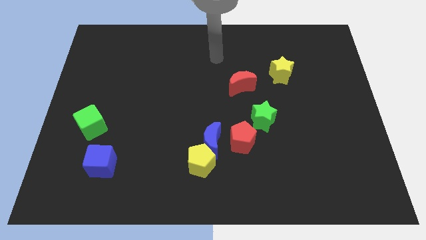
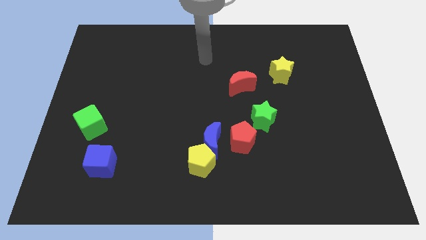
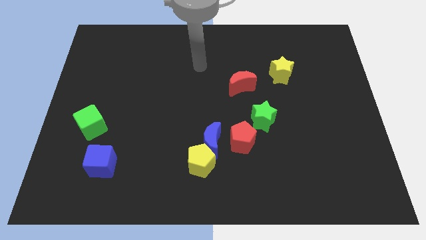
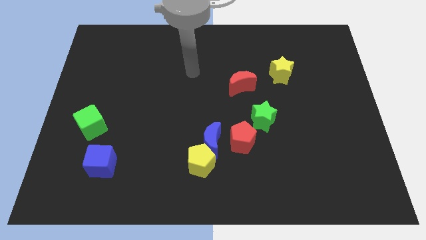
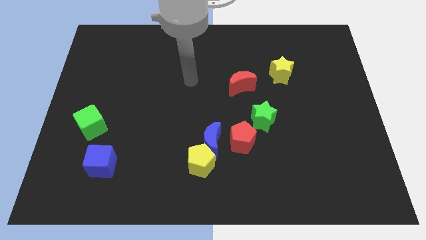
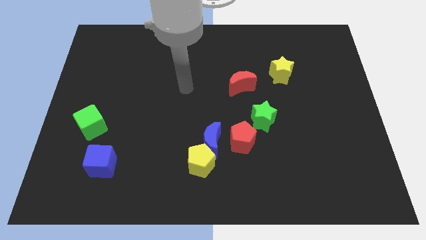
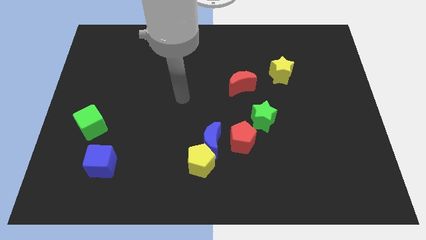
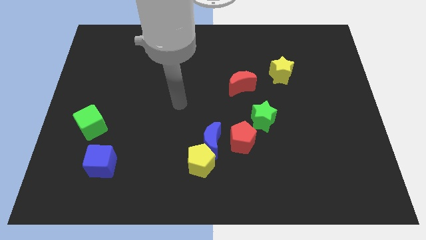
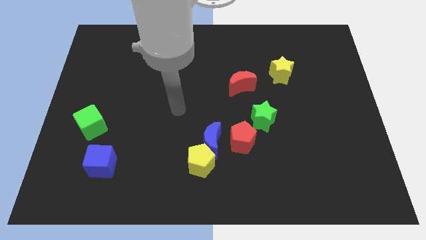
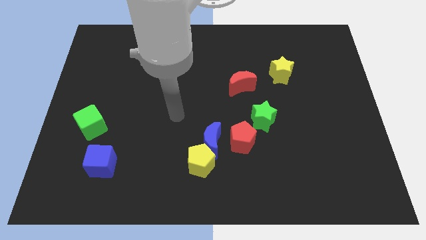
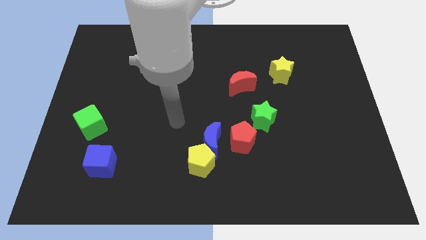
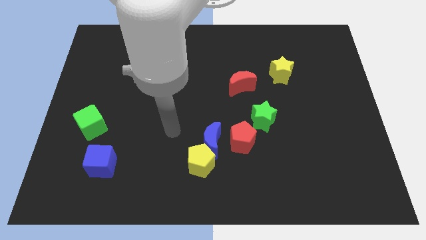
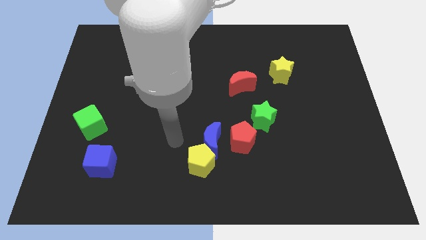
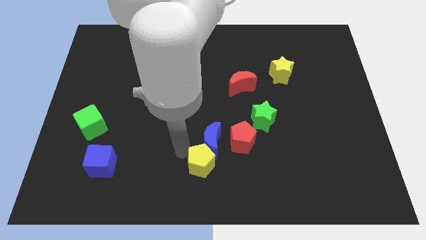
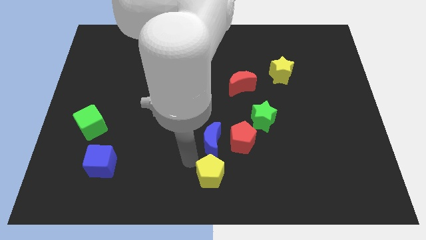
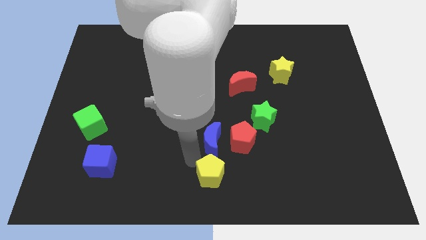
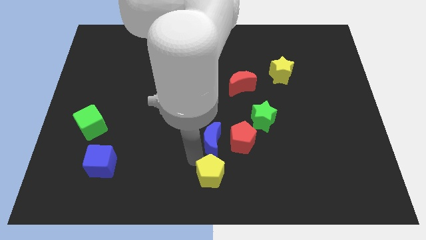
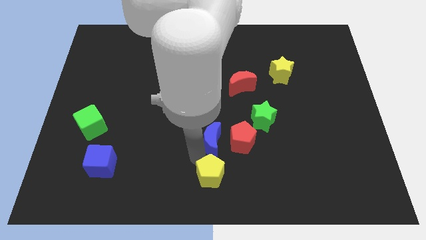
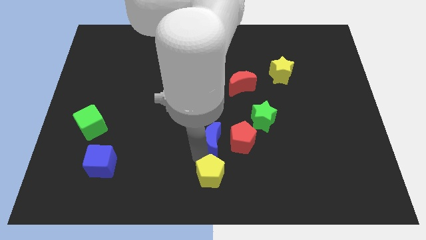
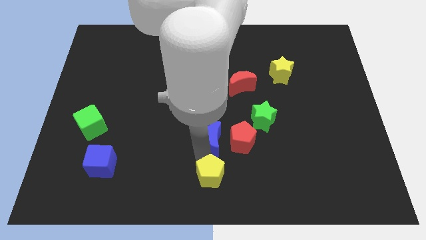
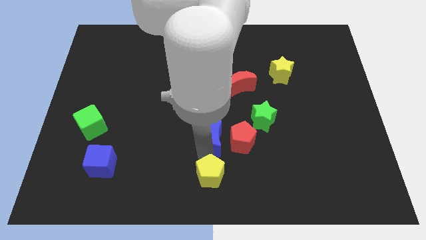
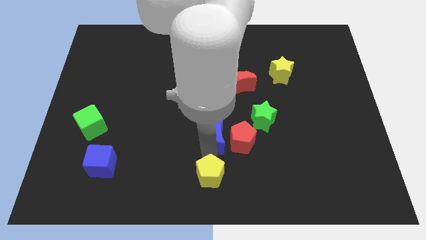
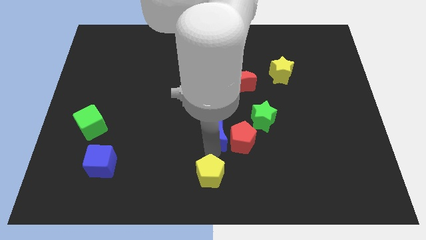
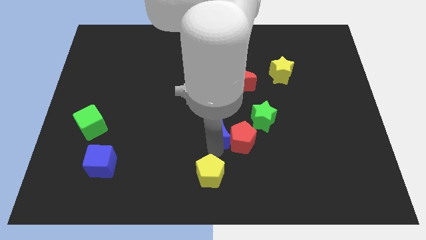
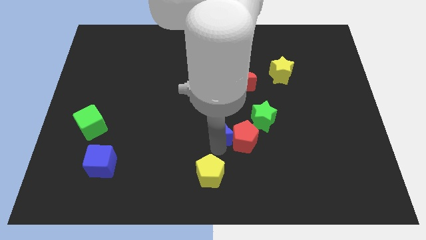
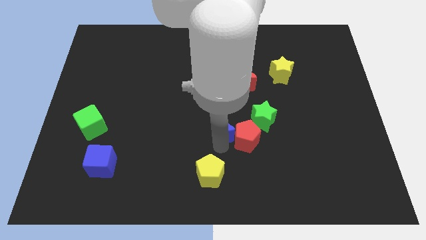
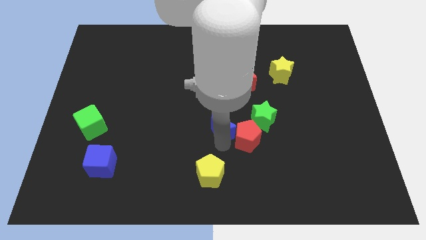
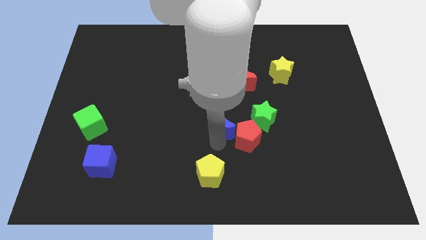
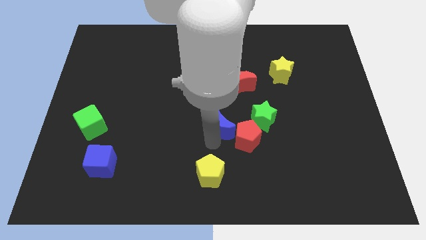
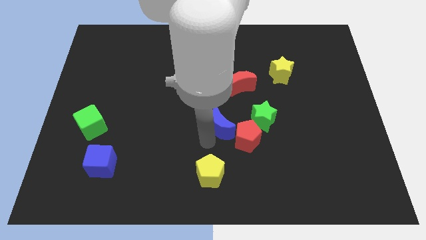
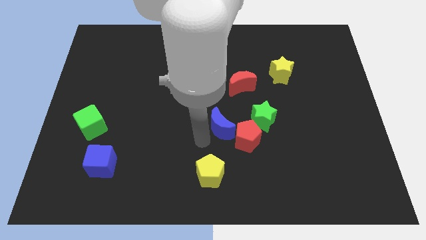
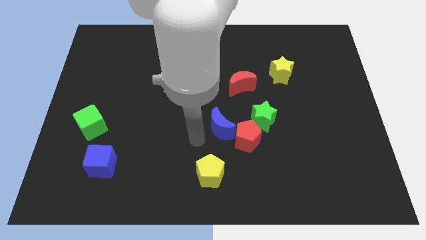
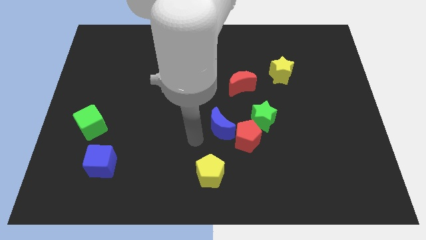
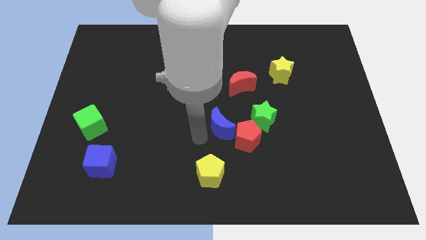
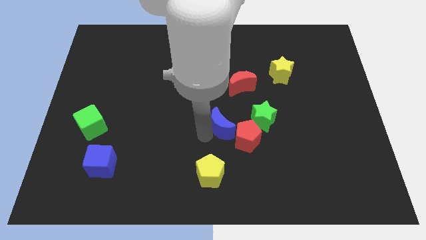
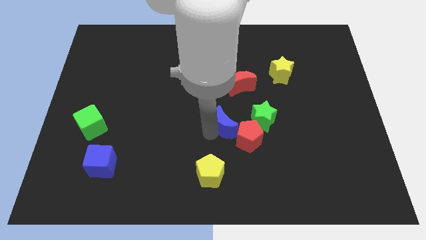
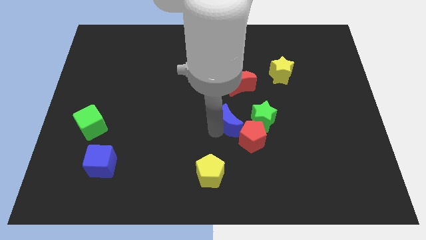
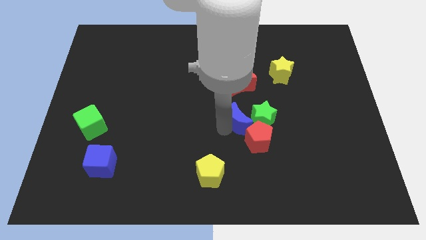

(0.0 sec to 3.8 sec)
slide the blue moon a bit up and right

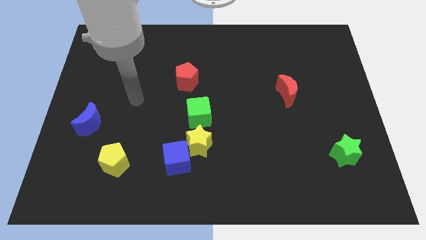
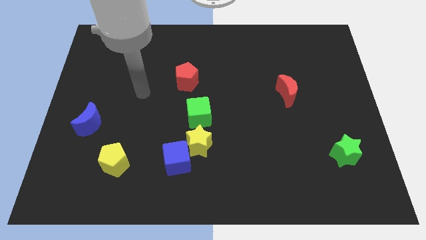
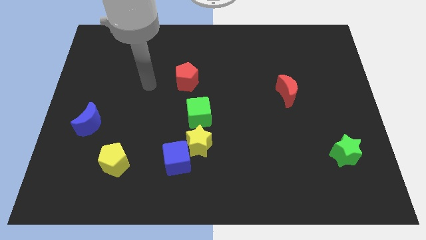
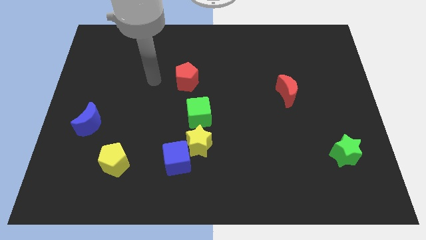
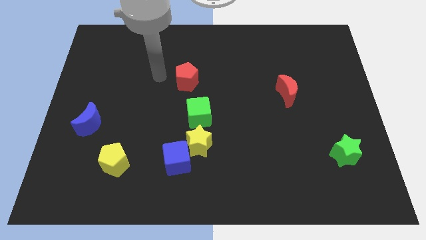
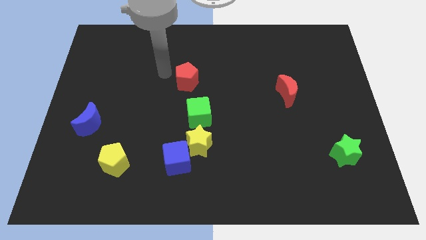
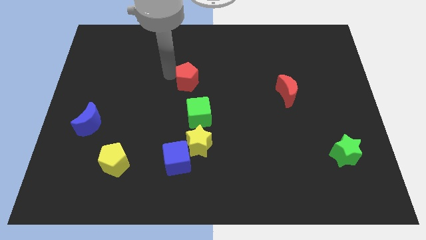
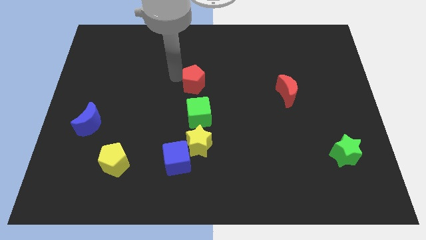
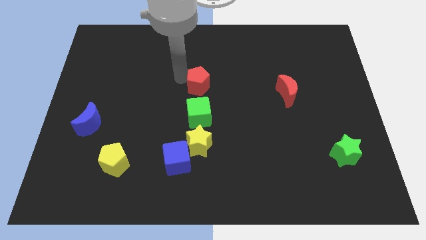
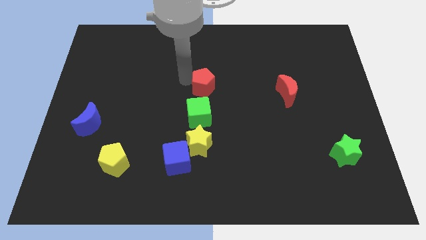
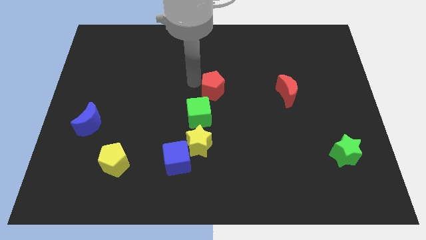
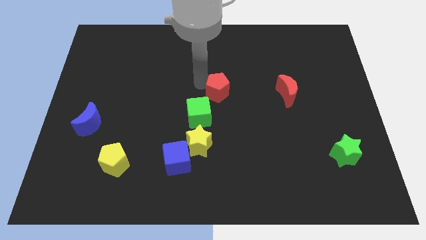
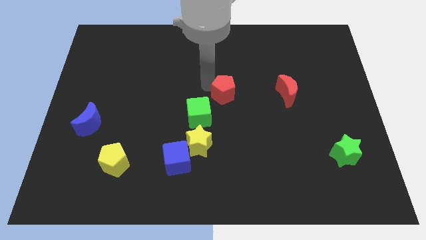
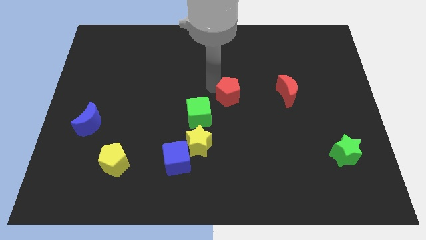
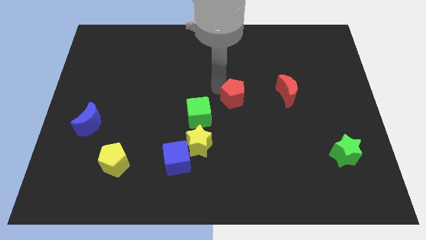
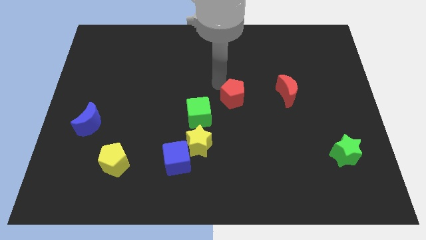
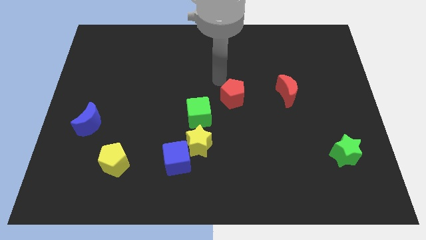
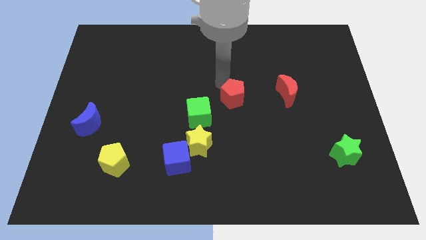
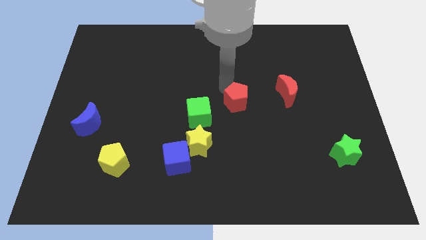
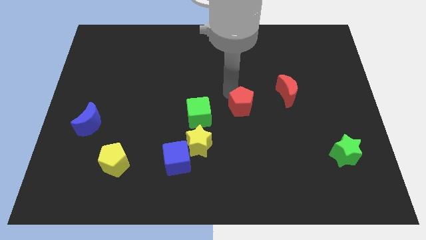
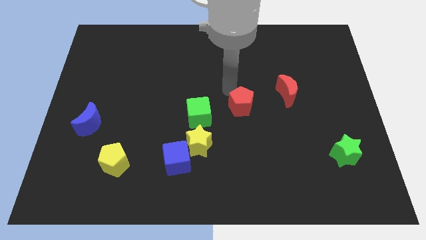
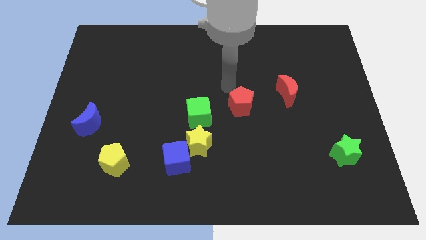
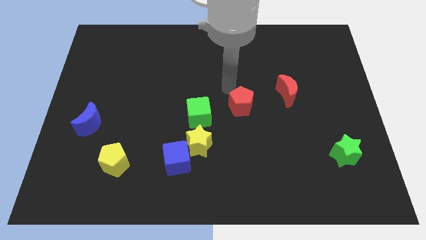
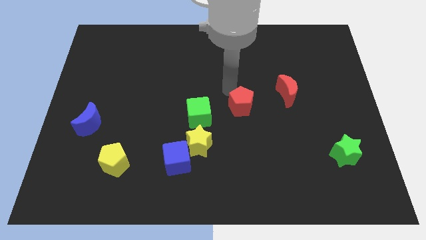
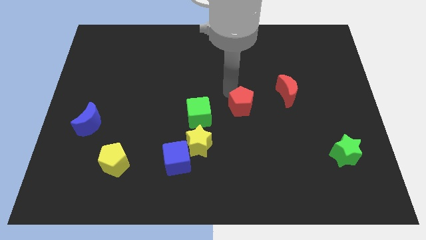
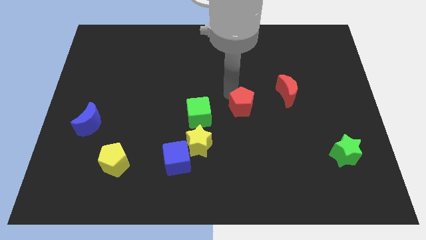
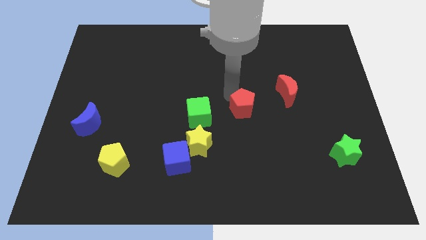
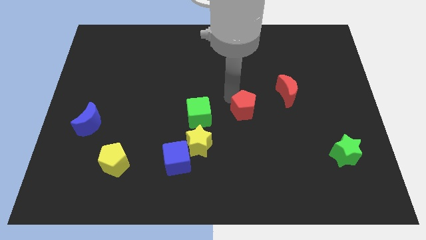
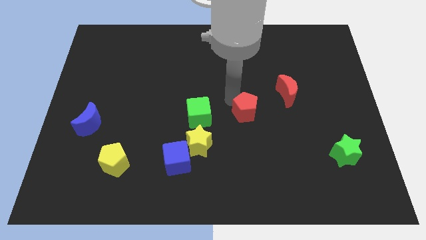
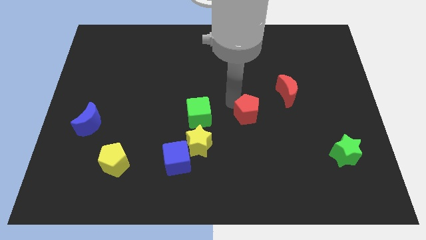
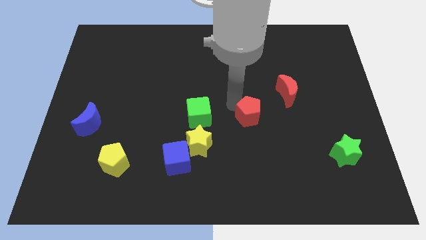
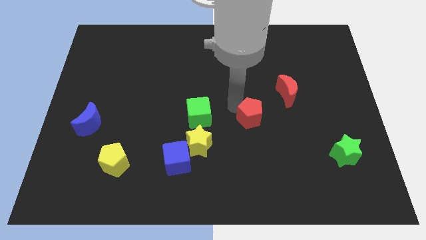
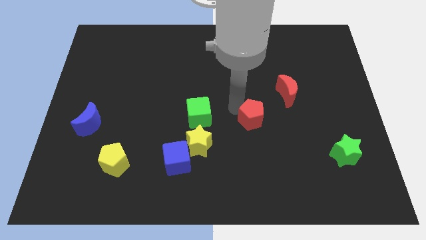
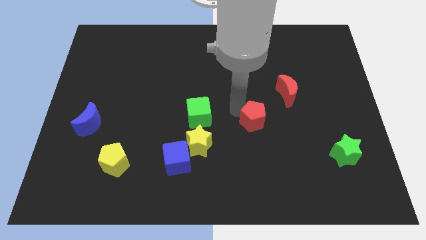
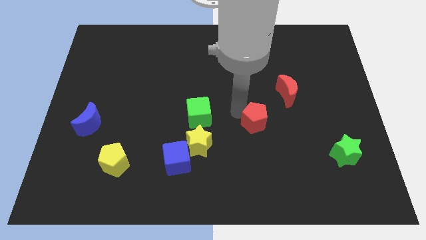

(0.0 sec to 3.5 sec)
move the red pentagon downwards and then right

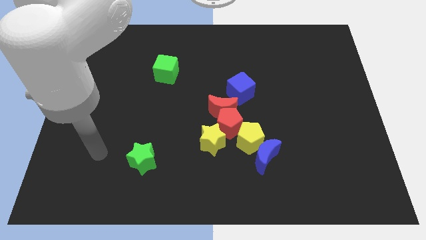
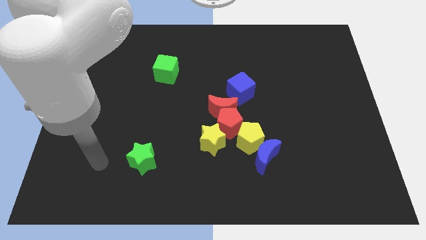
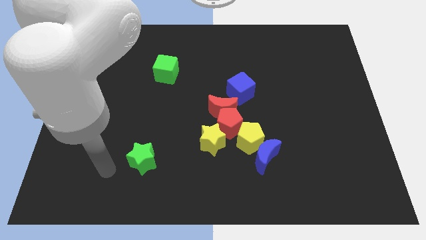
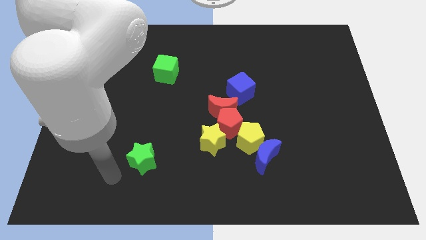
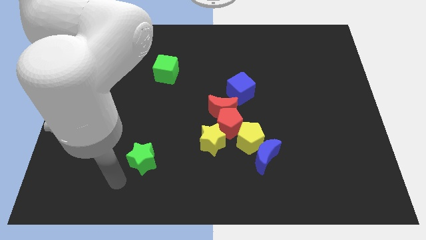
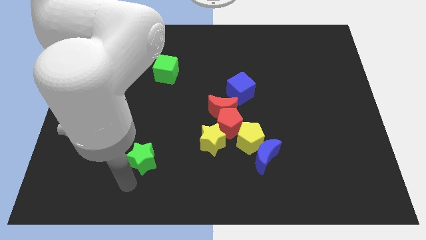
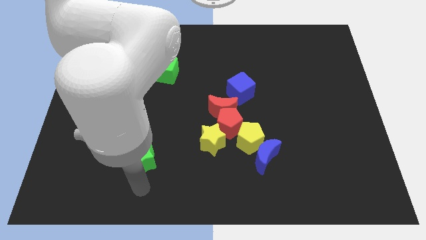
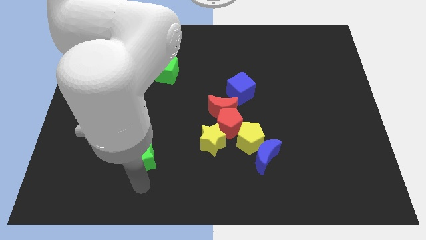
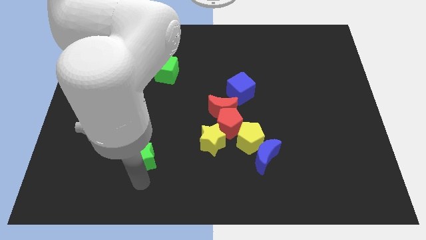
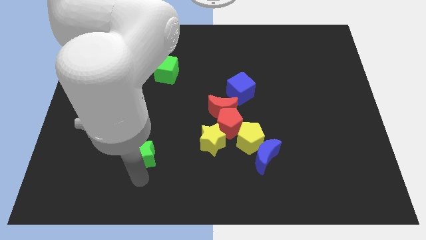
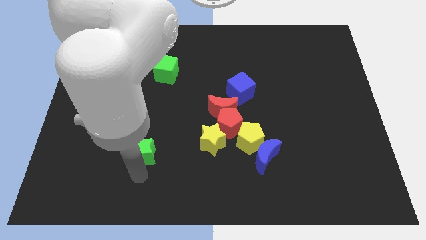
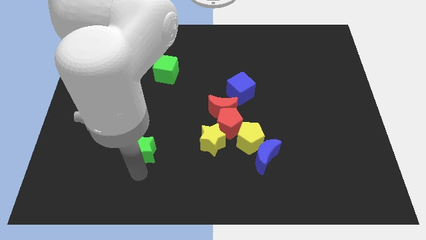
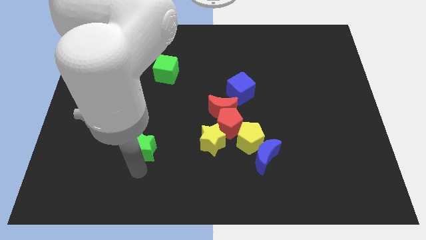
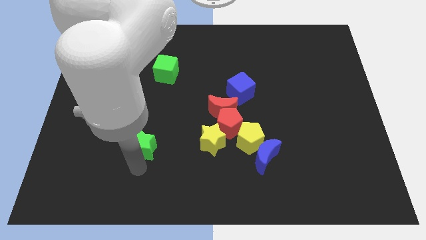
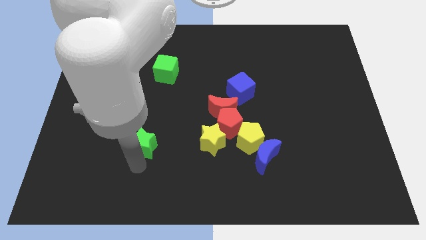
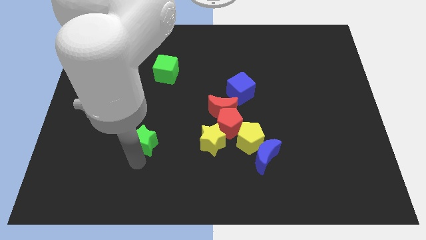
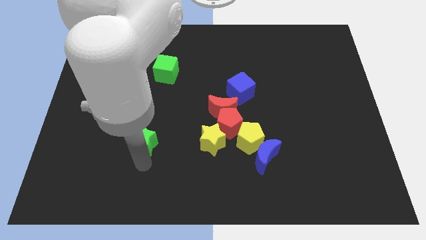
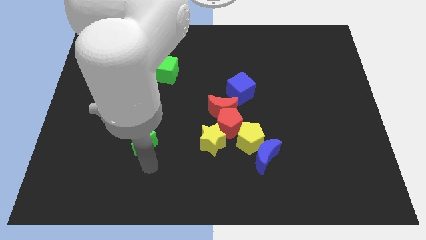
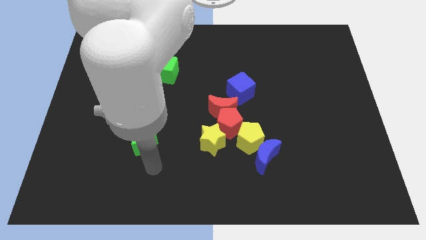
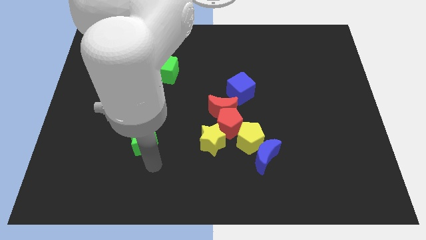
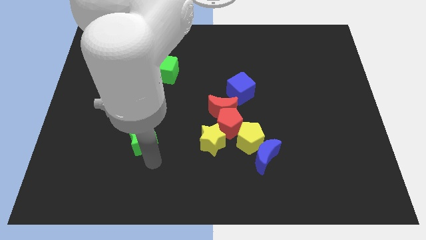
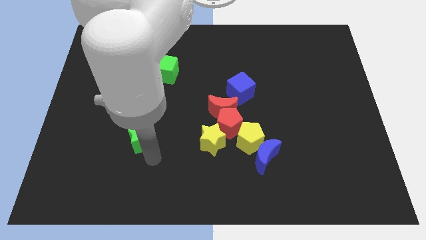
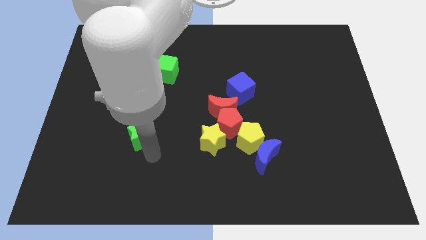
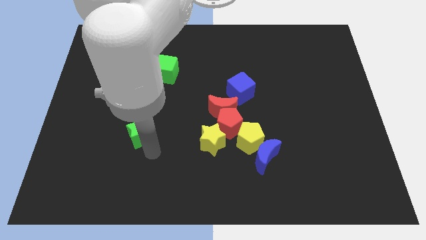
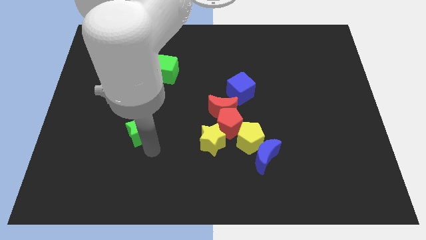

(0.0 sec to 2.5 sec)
move the green star somewhat upwards
